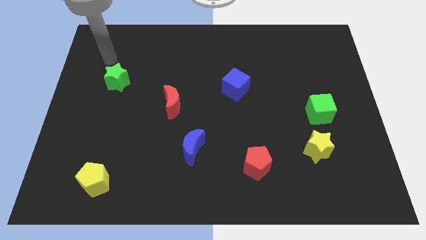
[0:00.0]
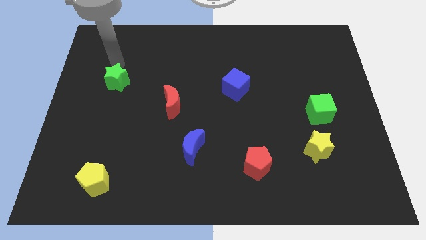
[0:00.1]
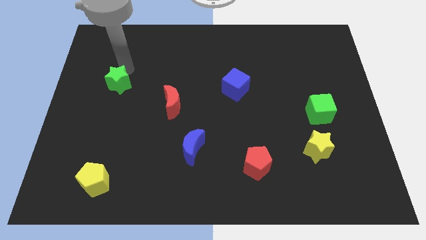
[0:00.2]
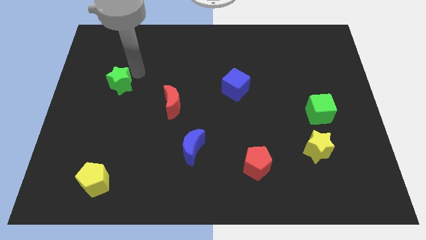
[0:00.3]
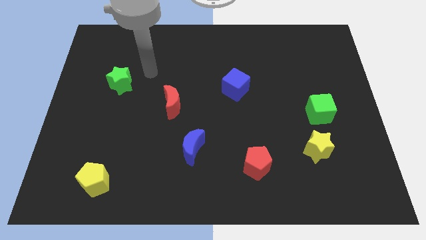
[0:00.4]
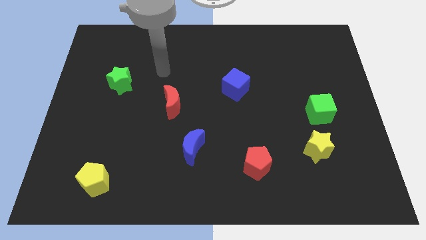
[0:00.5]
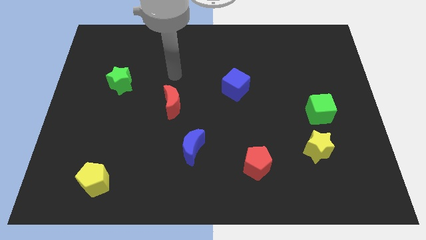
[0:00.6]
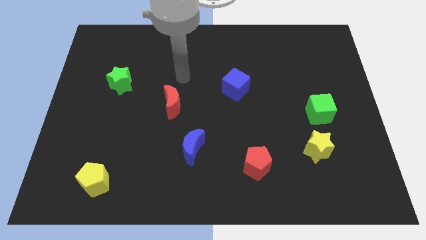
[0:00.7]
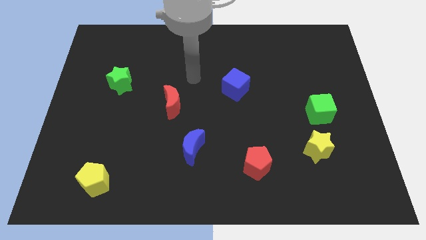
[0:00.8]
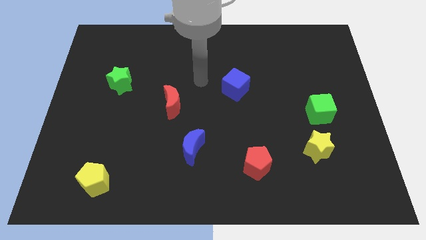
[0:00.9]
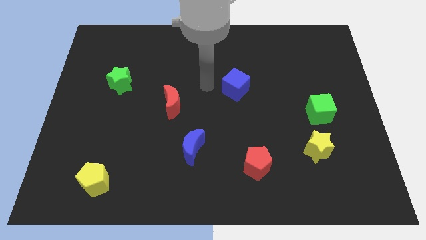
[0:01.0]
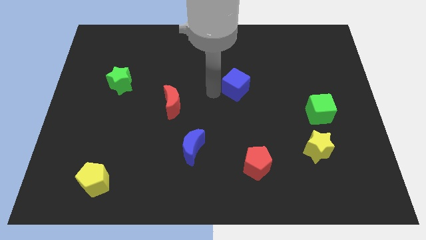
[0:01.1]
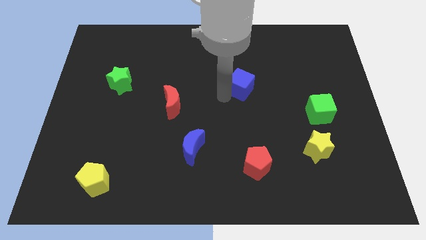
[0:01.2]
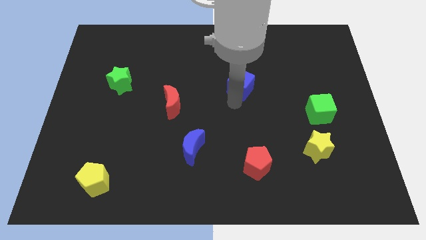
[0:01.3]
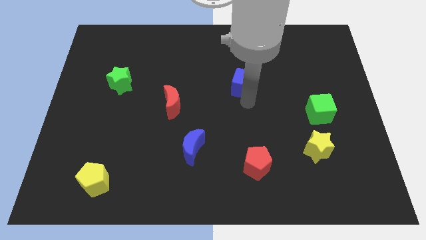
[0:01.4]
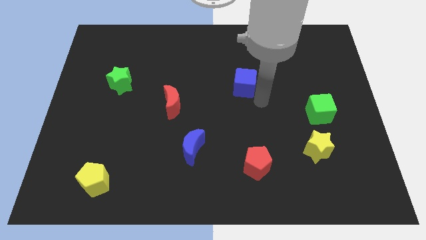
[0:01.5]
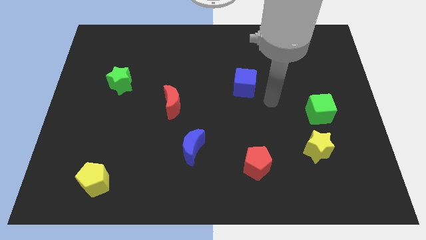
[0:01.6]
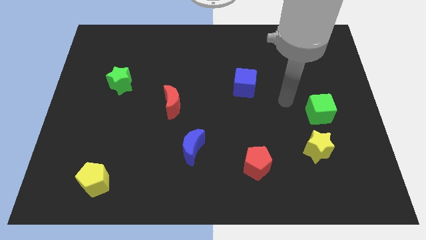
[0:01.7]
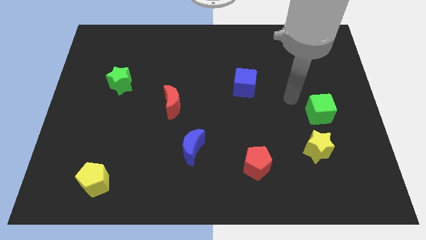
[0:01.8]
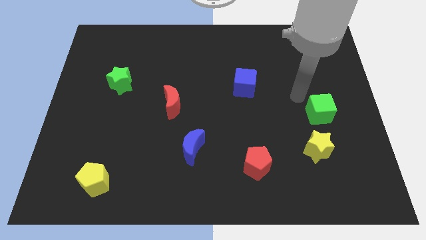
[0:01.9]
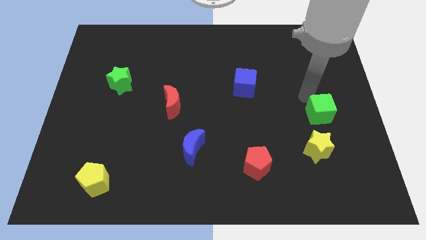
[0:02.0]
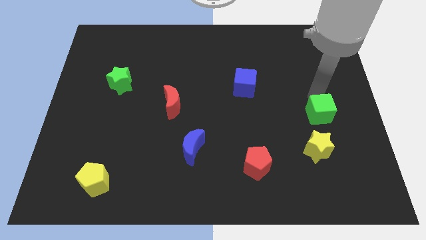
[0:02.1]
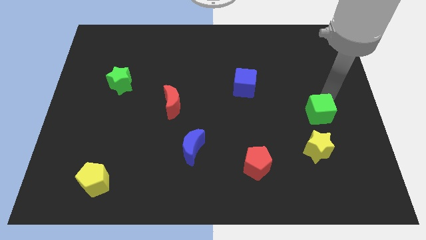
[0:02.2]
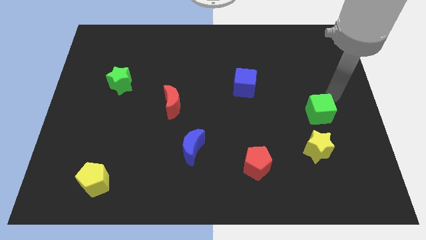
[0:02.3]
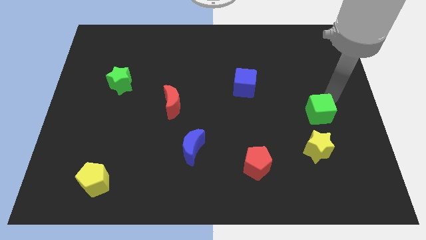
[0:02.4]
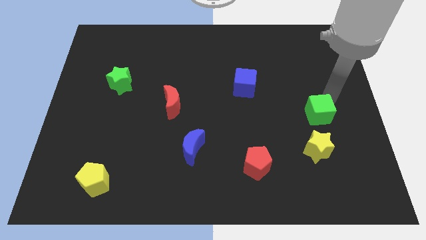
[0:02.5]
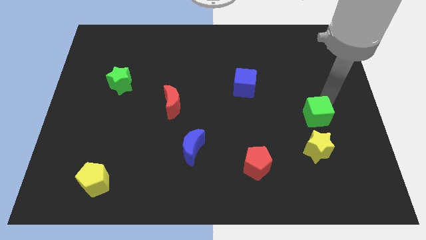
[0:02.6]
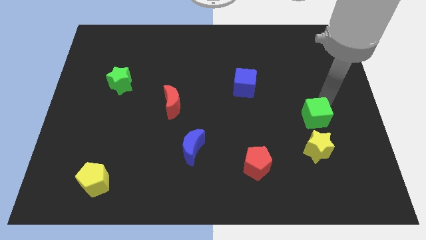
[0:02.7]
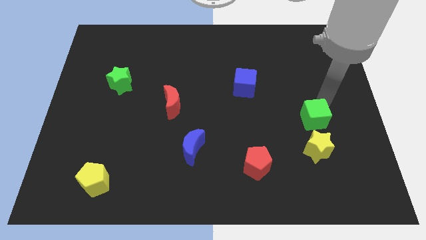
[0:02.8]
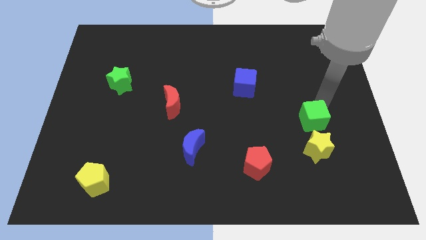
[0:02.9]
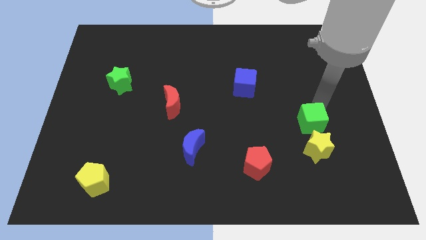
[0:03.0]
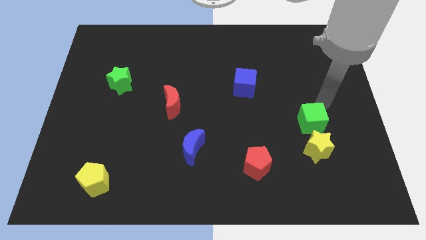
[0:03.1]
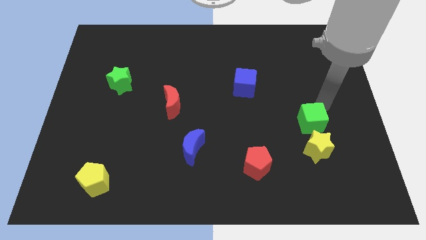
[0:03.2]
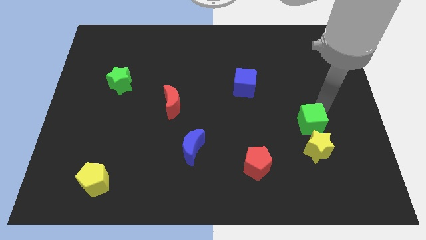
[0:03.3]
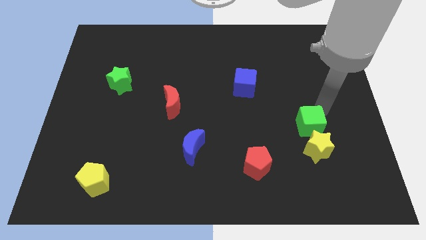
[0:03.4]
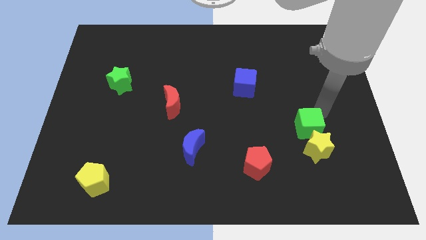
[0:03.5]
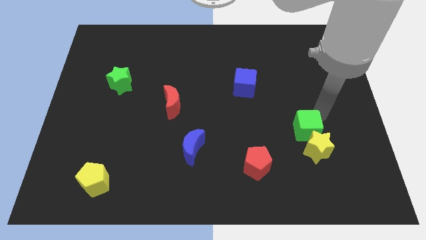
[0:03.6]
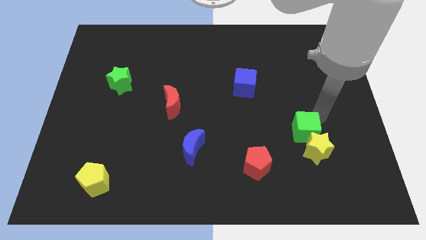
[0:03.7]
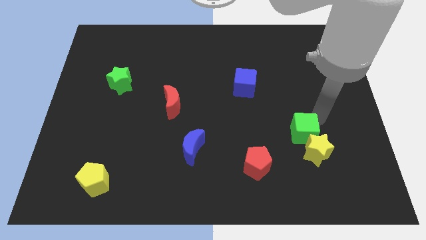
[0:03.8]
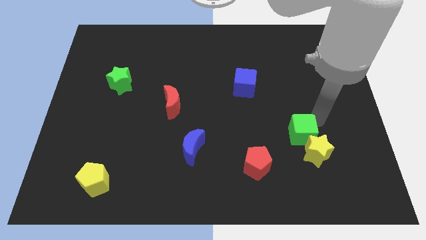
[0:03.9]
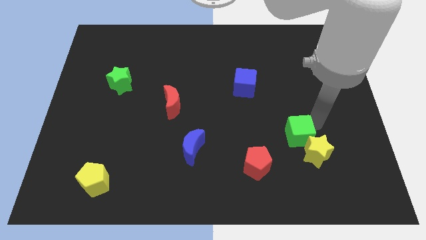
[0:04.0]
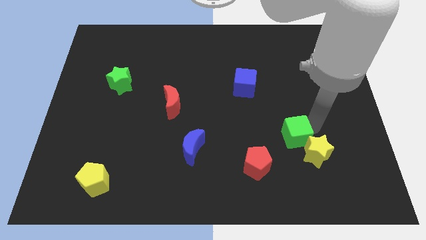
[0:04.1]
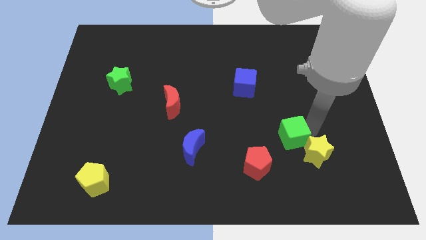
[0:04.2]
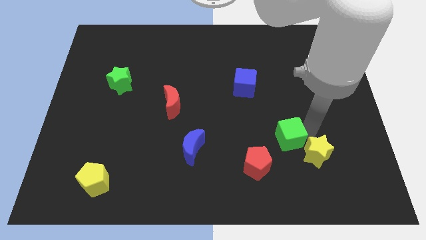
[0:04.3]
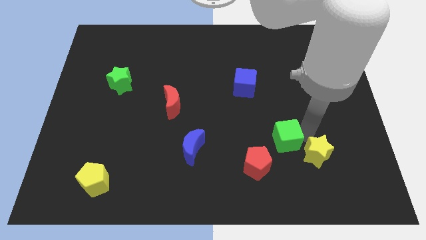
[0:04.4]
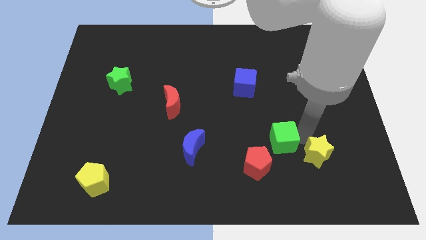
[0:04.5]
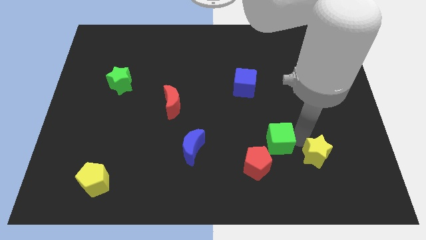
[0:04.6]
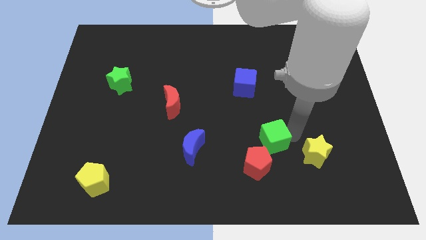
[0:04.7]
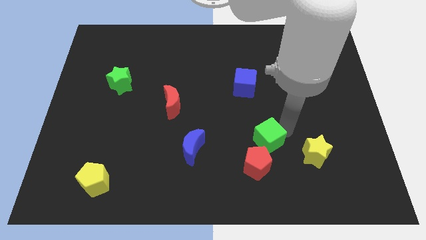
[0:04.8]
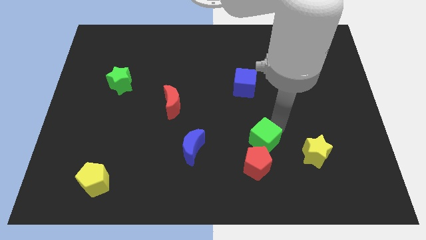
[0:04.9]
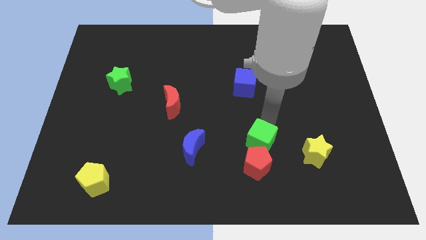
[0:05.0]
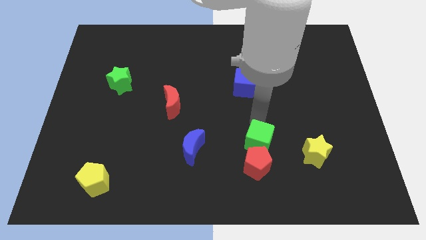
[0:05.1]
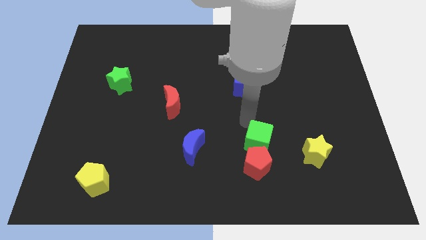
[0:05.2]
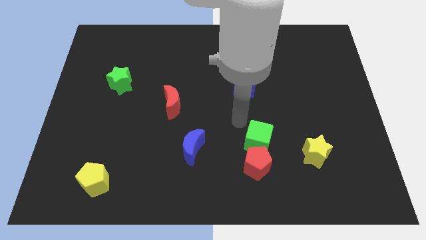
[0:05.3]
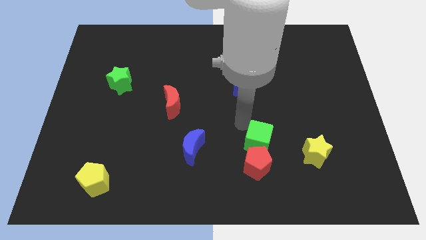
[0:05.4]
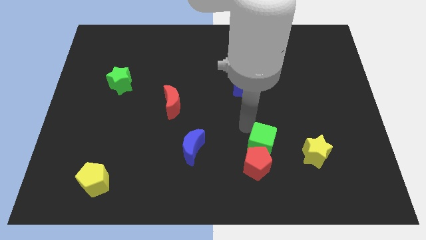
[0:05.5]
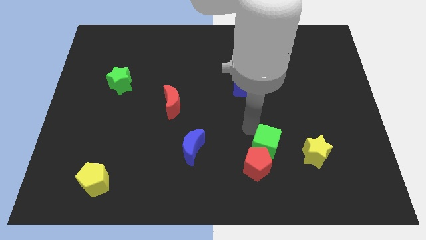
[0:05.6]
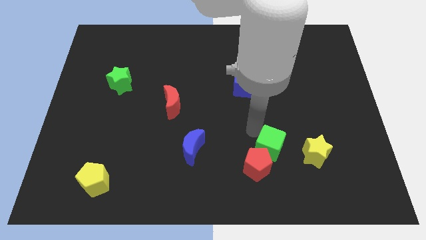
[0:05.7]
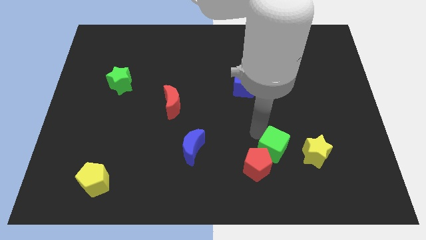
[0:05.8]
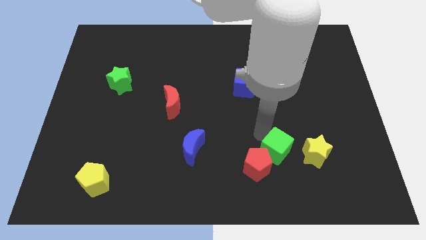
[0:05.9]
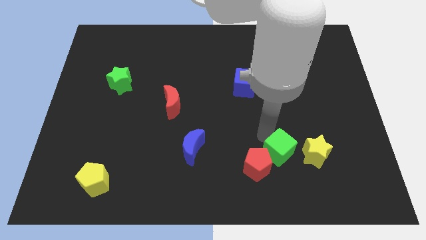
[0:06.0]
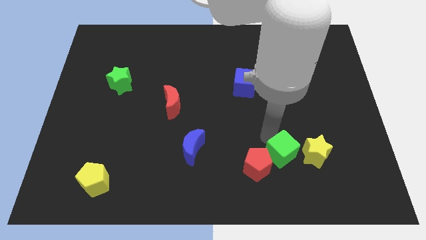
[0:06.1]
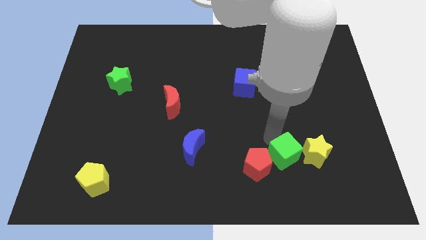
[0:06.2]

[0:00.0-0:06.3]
put the green cube to the bottom left side of the yellow star

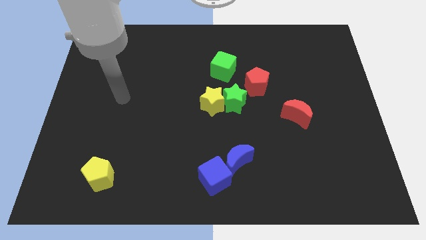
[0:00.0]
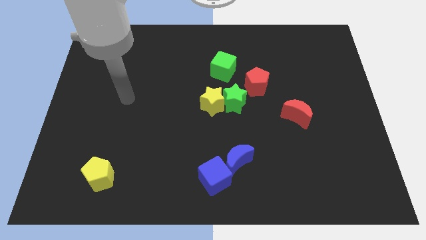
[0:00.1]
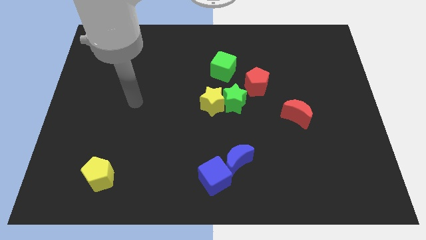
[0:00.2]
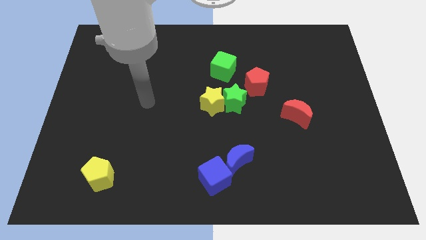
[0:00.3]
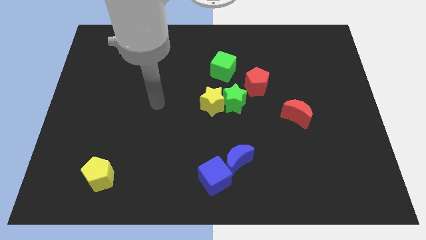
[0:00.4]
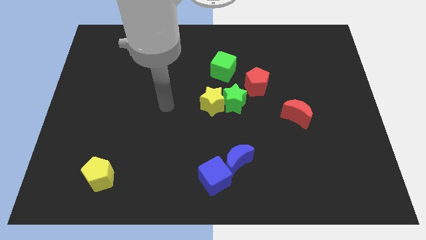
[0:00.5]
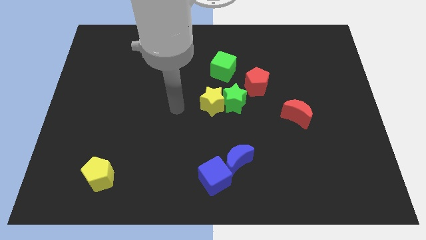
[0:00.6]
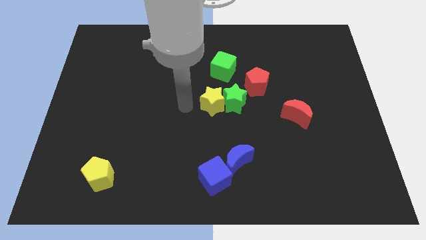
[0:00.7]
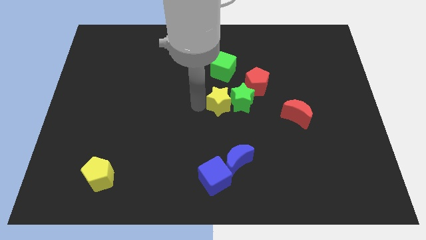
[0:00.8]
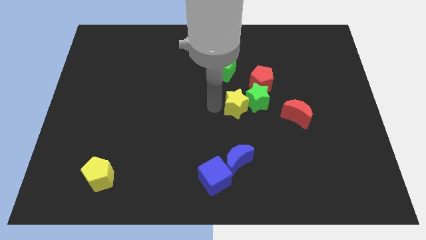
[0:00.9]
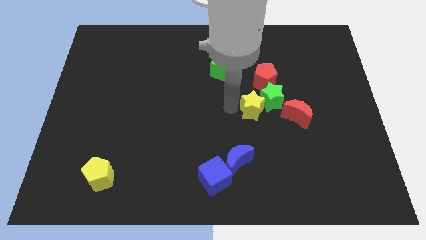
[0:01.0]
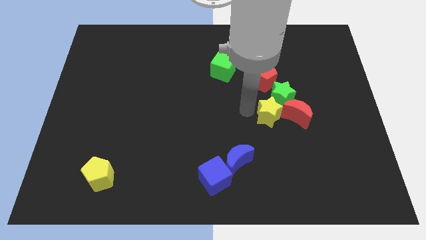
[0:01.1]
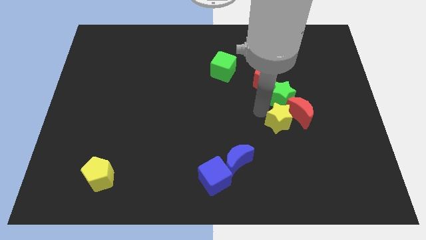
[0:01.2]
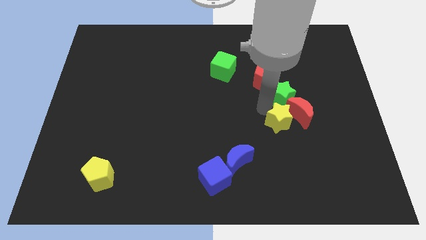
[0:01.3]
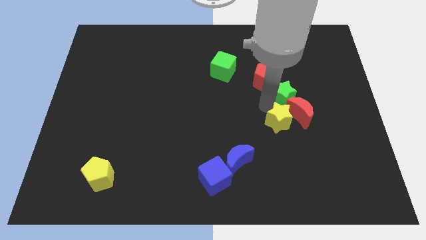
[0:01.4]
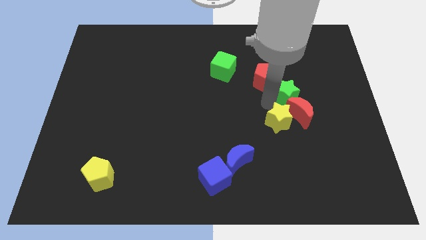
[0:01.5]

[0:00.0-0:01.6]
put the green star right of the red pentagon
